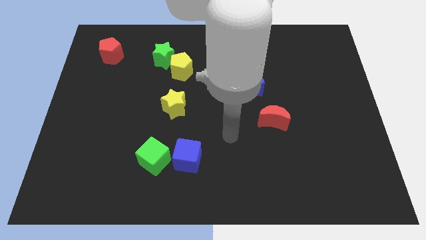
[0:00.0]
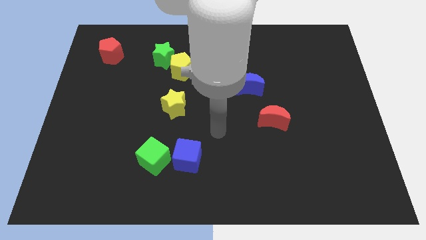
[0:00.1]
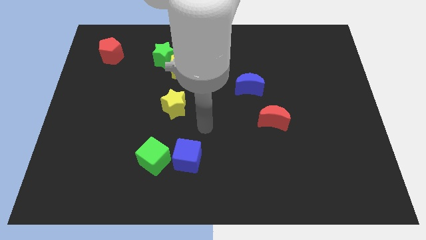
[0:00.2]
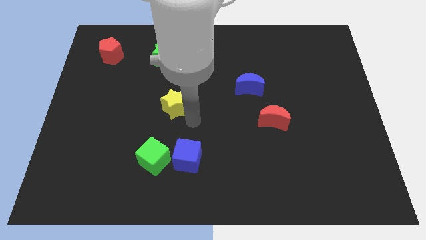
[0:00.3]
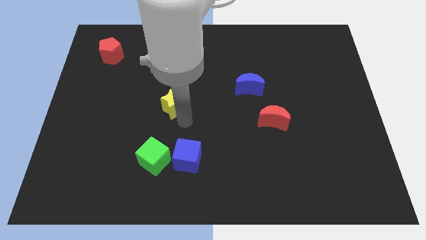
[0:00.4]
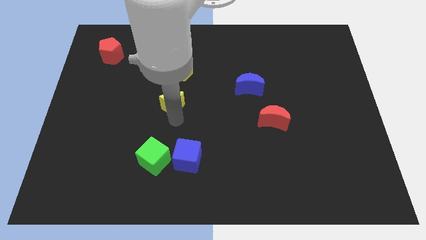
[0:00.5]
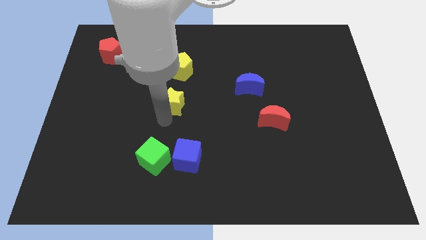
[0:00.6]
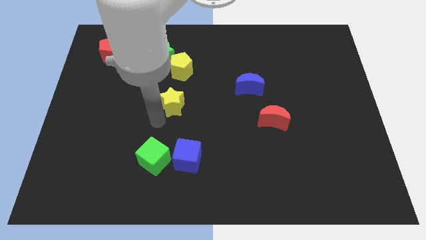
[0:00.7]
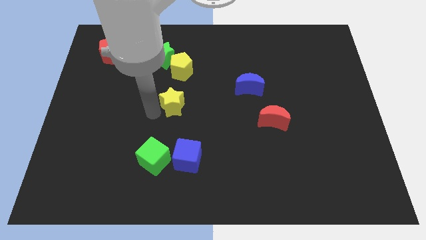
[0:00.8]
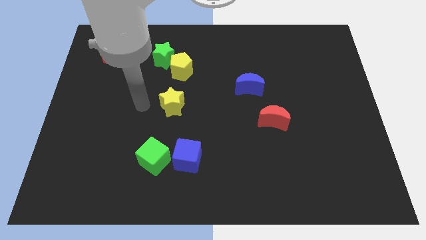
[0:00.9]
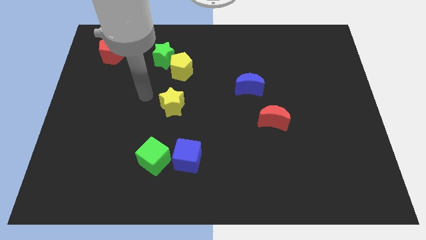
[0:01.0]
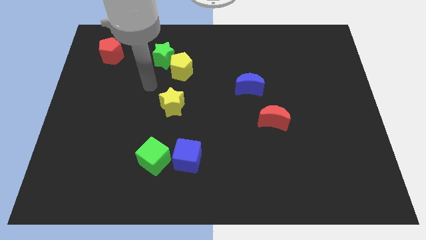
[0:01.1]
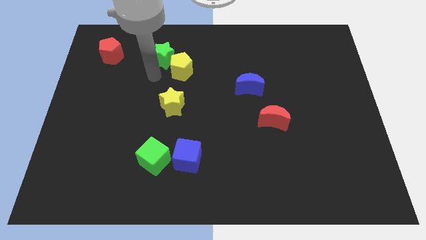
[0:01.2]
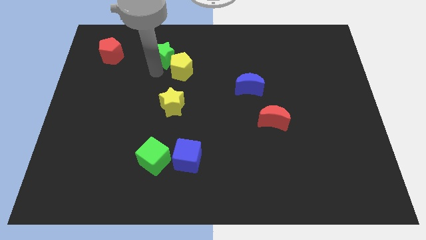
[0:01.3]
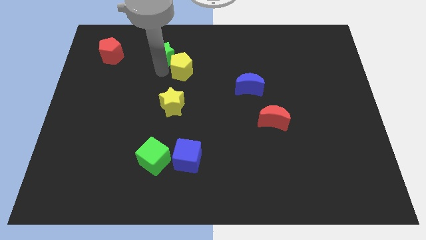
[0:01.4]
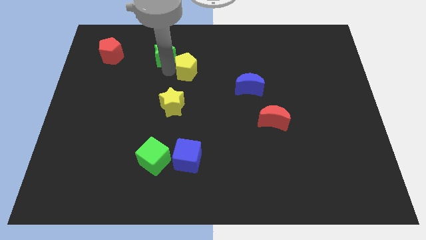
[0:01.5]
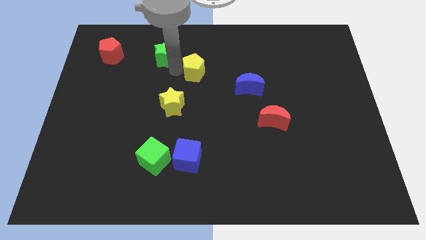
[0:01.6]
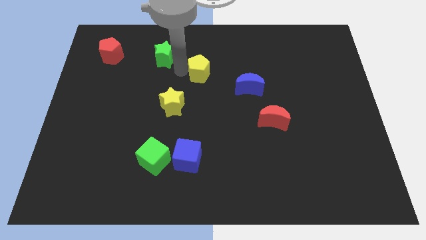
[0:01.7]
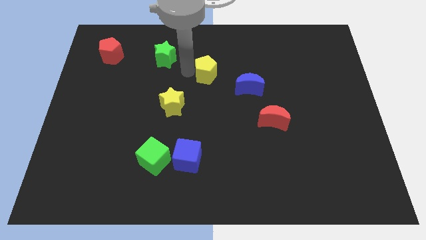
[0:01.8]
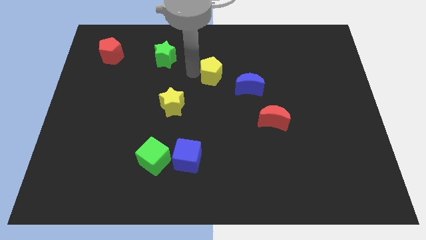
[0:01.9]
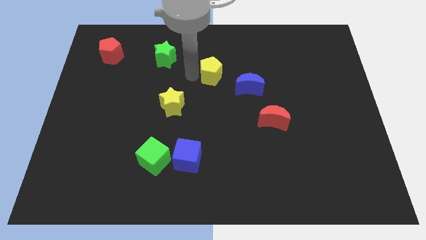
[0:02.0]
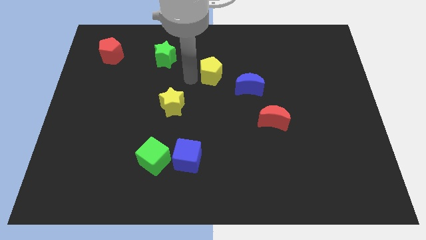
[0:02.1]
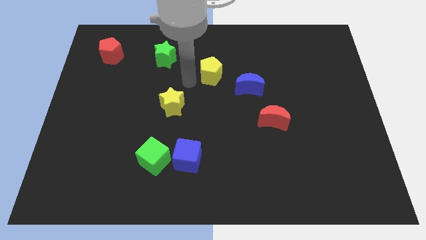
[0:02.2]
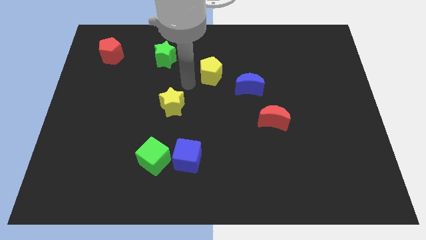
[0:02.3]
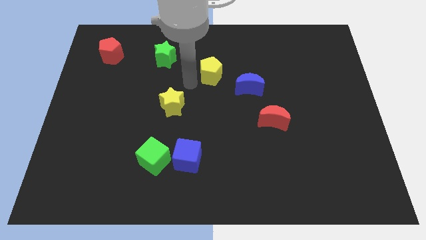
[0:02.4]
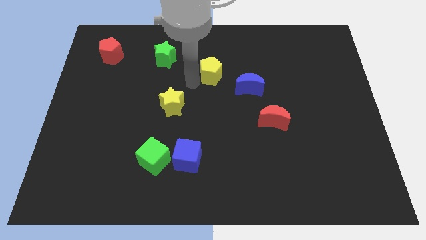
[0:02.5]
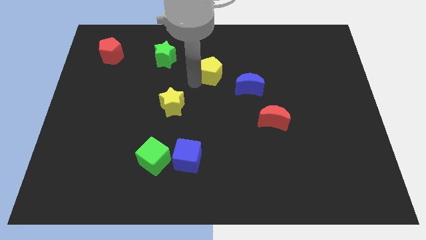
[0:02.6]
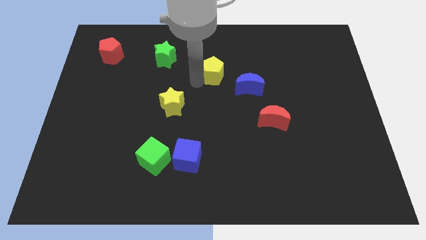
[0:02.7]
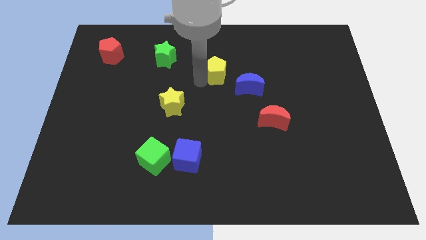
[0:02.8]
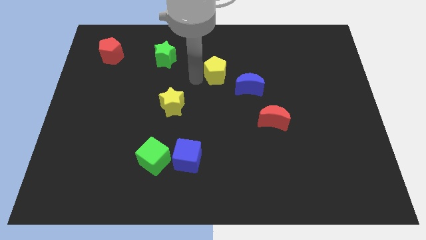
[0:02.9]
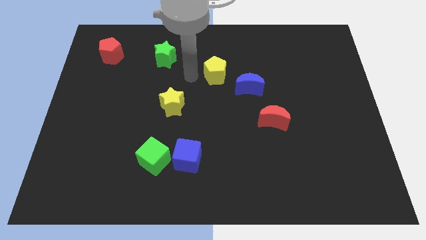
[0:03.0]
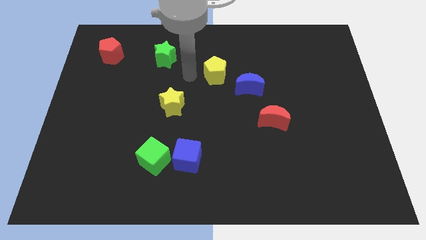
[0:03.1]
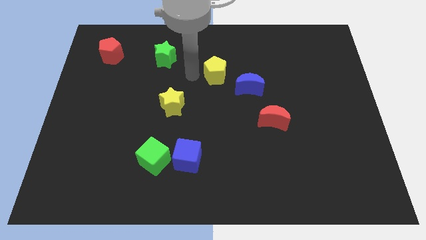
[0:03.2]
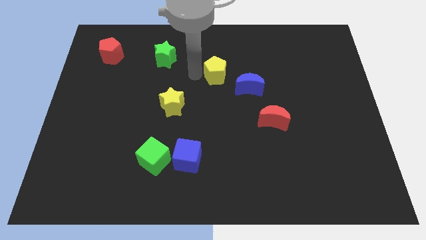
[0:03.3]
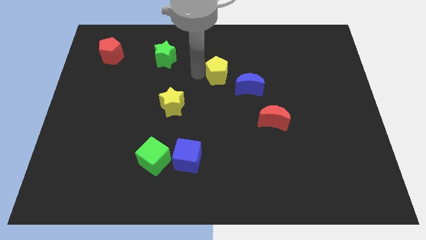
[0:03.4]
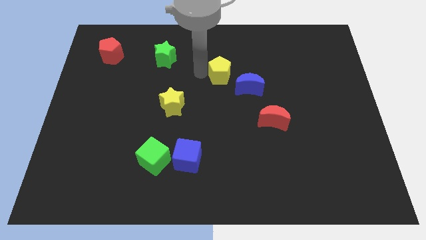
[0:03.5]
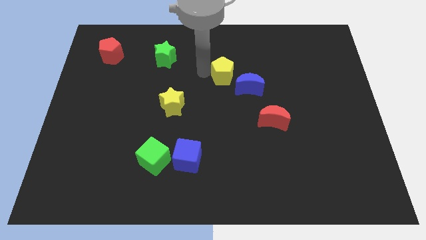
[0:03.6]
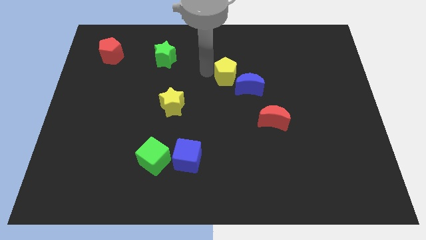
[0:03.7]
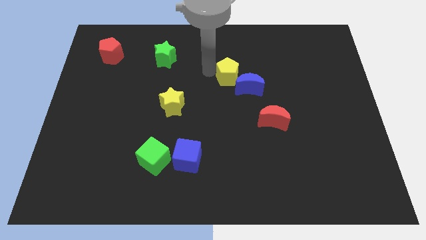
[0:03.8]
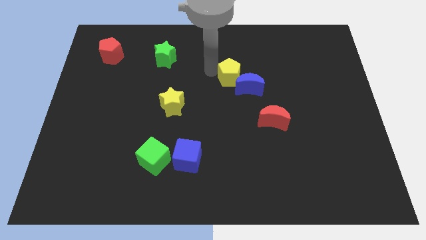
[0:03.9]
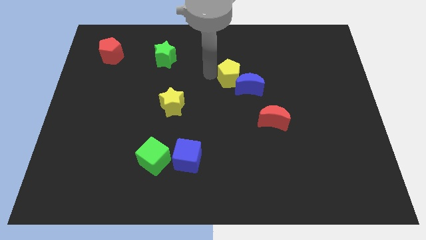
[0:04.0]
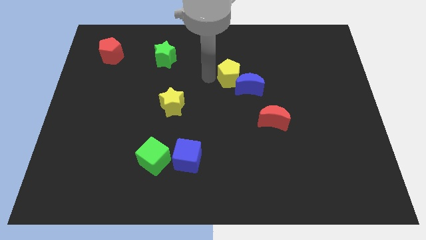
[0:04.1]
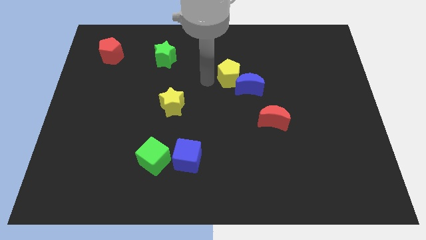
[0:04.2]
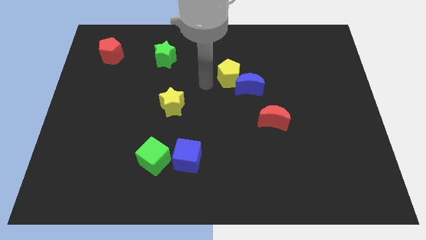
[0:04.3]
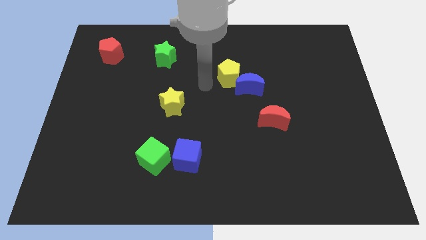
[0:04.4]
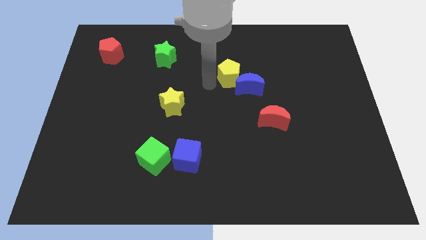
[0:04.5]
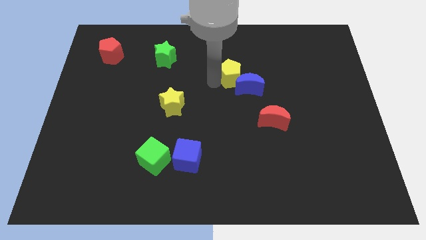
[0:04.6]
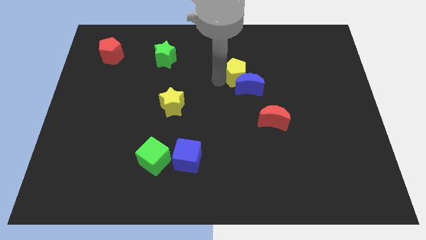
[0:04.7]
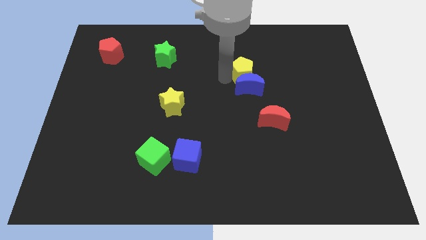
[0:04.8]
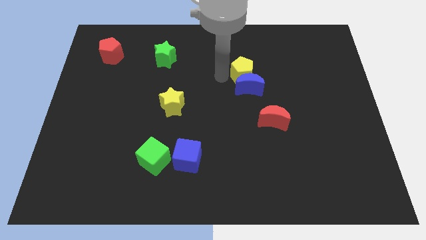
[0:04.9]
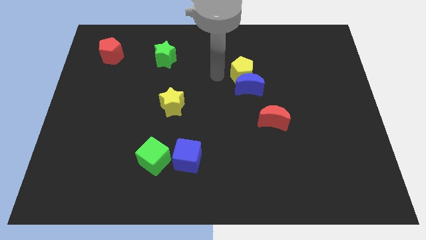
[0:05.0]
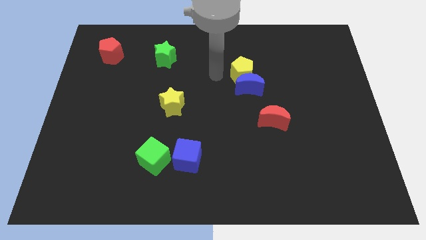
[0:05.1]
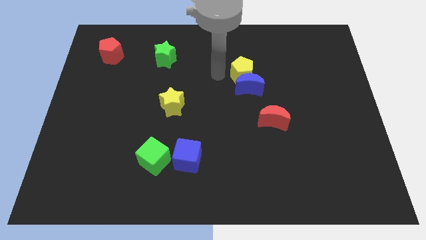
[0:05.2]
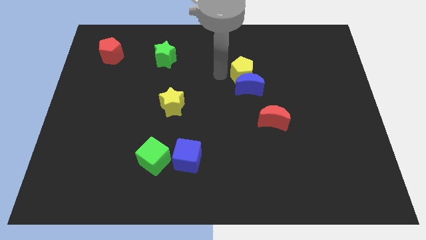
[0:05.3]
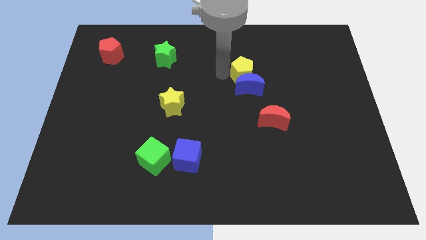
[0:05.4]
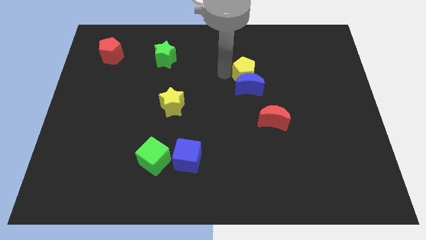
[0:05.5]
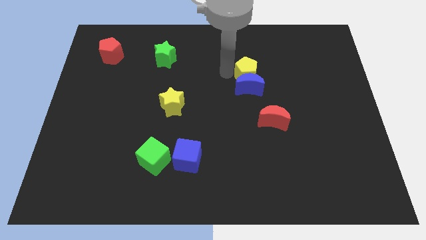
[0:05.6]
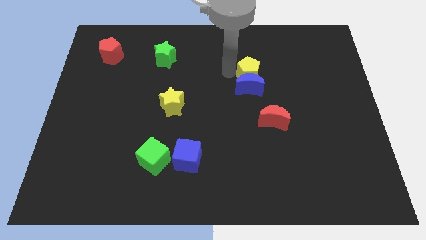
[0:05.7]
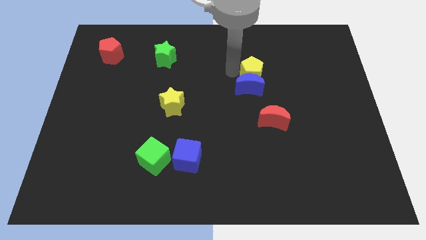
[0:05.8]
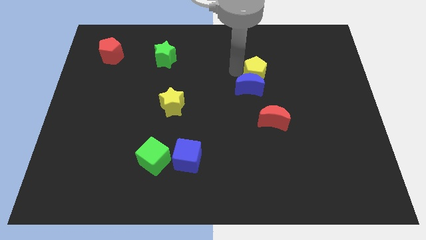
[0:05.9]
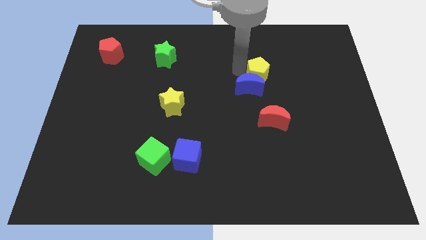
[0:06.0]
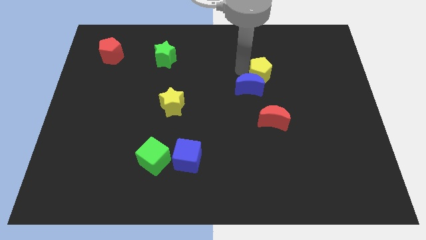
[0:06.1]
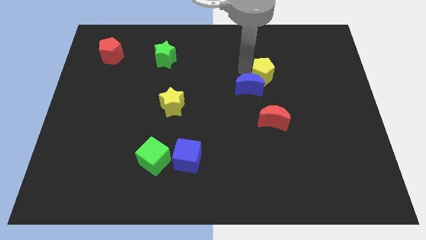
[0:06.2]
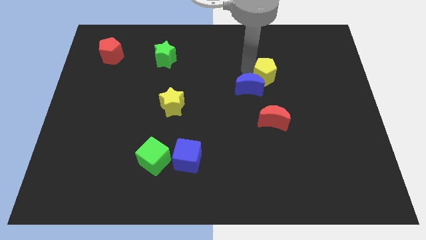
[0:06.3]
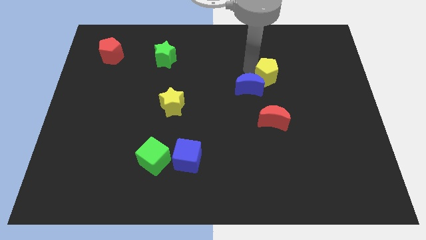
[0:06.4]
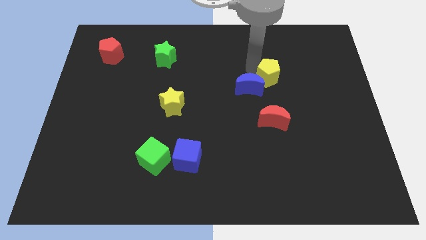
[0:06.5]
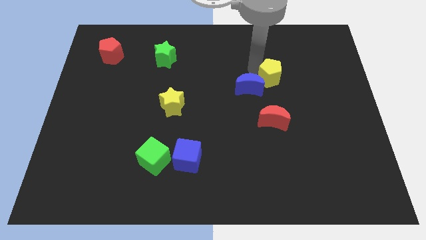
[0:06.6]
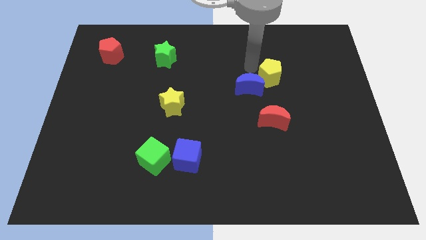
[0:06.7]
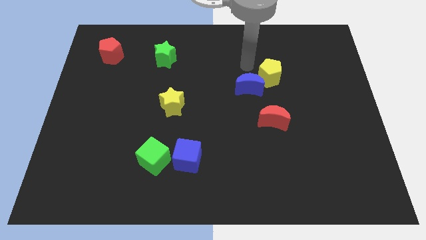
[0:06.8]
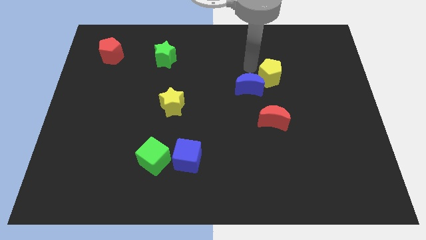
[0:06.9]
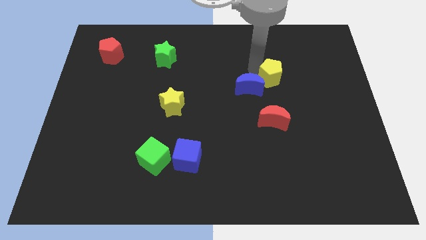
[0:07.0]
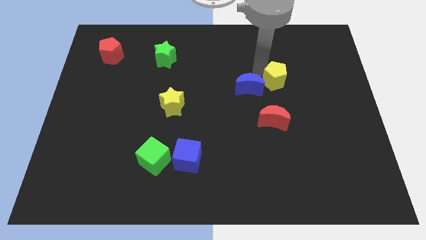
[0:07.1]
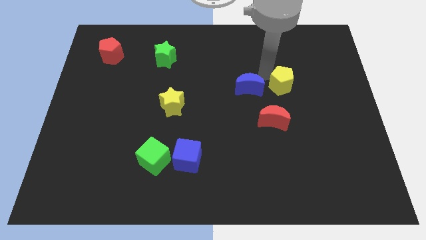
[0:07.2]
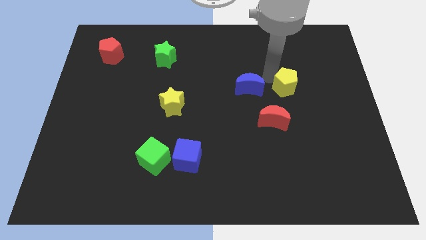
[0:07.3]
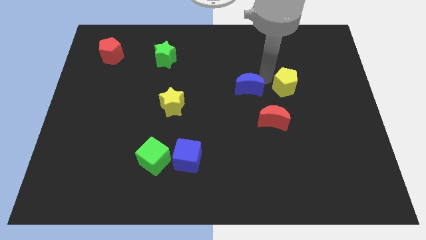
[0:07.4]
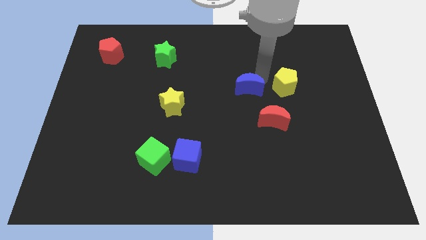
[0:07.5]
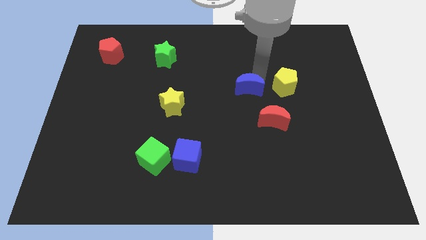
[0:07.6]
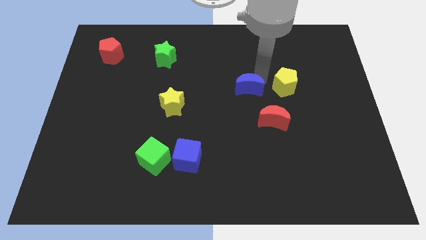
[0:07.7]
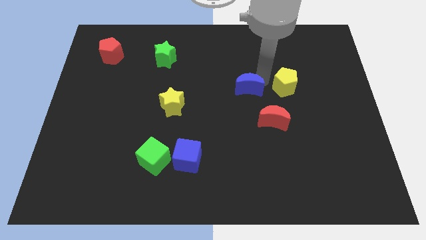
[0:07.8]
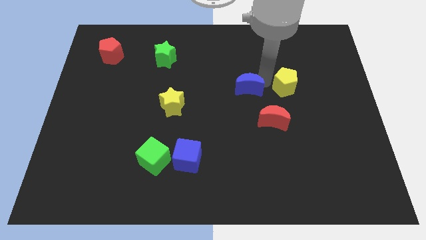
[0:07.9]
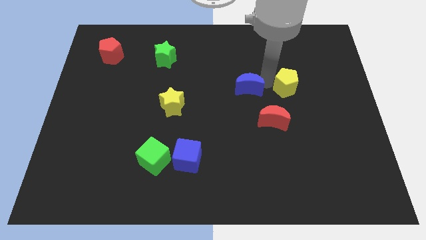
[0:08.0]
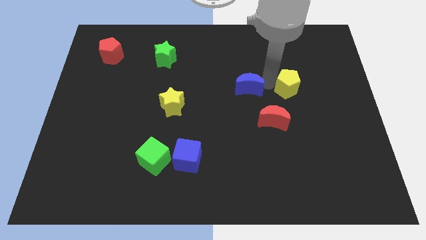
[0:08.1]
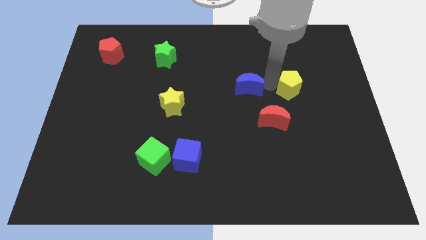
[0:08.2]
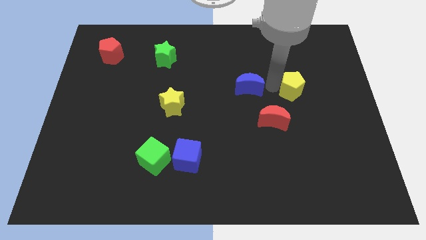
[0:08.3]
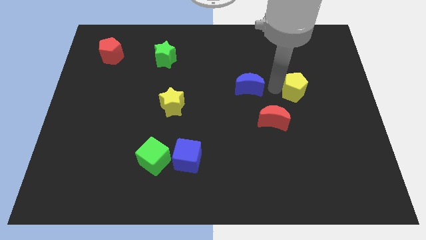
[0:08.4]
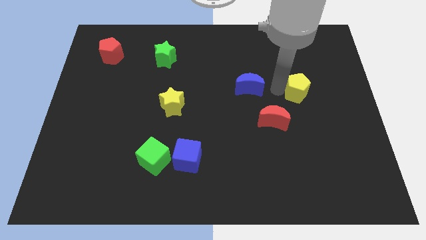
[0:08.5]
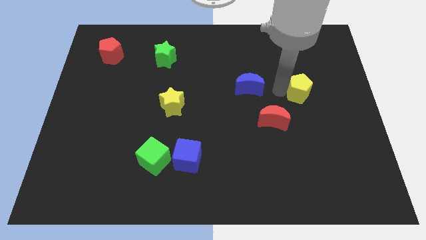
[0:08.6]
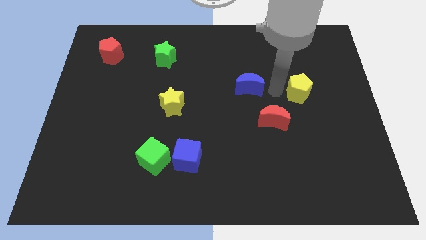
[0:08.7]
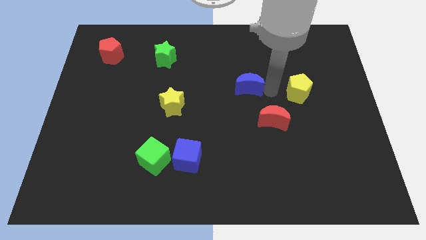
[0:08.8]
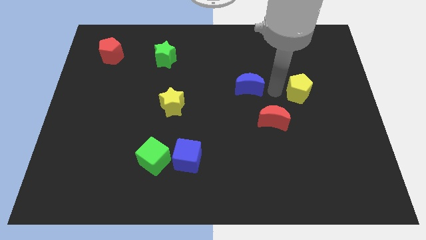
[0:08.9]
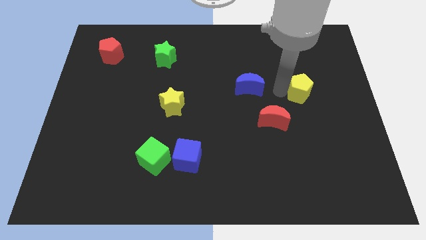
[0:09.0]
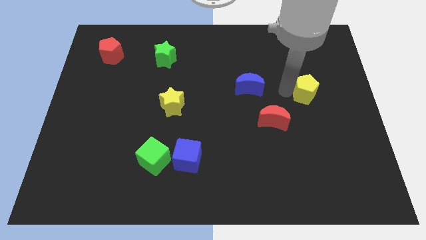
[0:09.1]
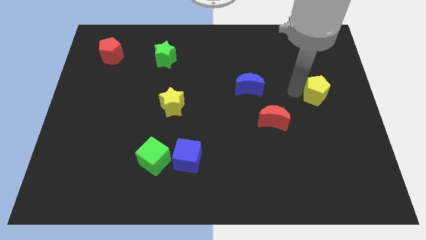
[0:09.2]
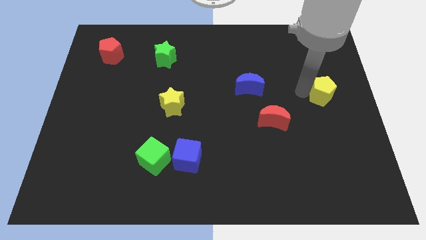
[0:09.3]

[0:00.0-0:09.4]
move the yellow pentagon to the right side
